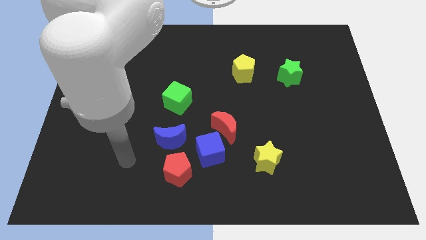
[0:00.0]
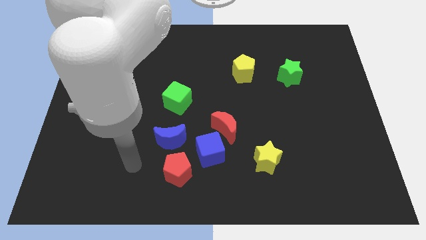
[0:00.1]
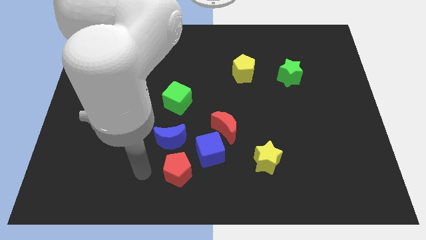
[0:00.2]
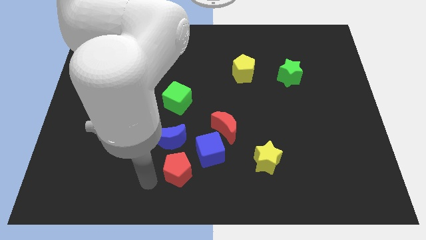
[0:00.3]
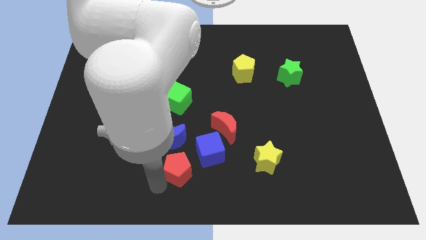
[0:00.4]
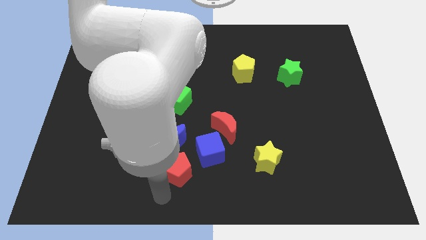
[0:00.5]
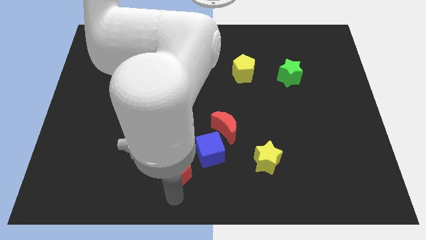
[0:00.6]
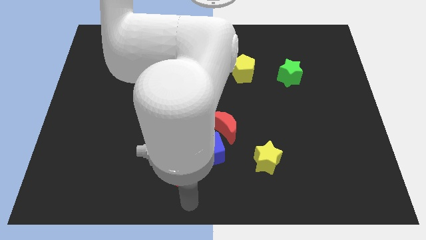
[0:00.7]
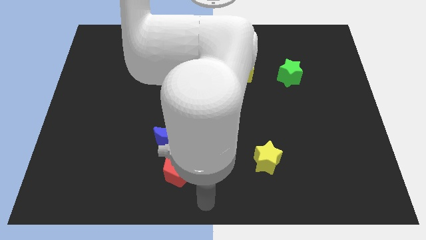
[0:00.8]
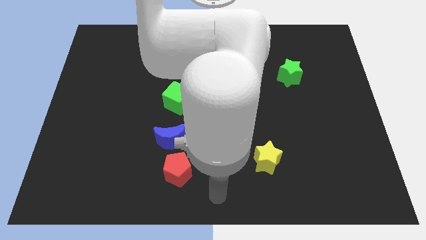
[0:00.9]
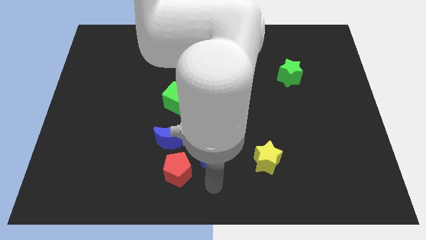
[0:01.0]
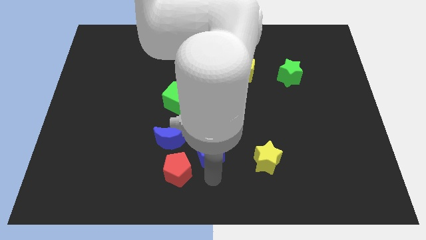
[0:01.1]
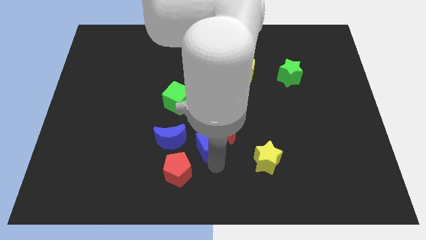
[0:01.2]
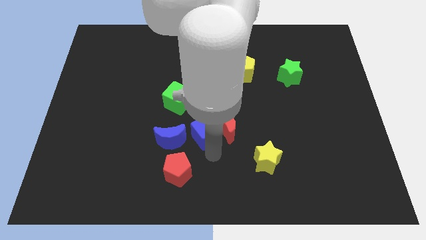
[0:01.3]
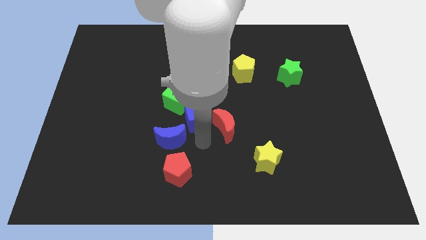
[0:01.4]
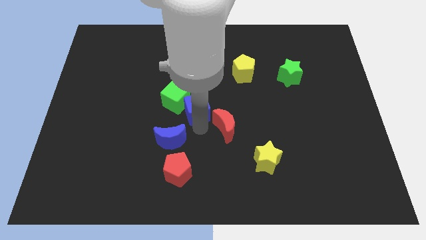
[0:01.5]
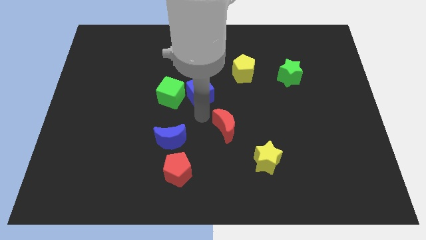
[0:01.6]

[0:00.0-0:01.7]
pull the red moon apart from the blue cube

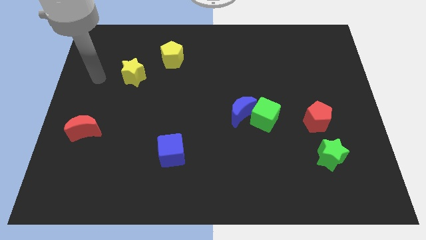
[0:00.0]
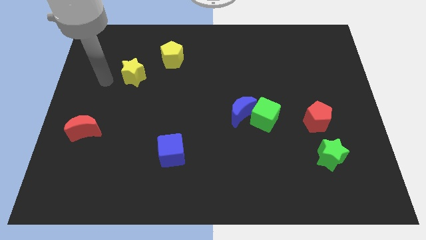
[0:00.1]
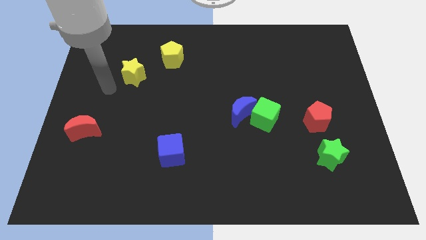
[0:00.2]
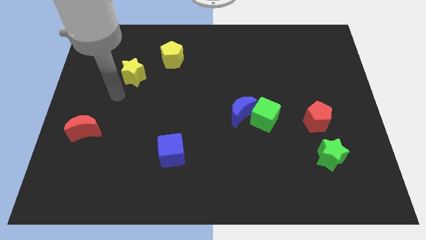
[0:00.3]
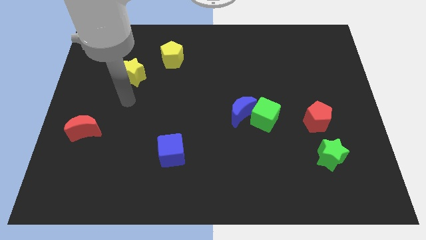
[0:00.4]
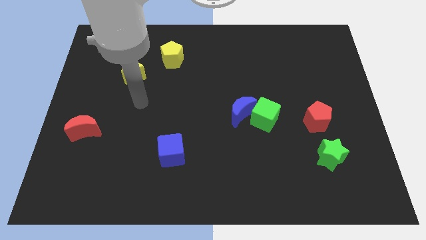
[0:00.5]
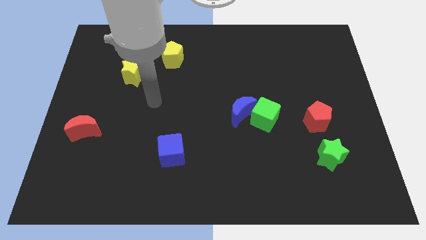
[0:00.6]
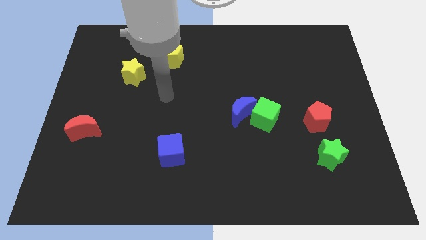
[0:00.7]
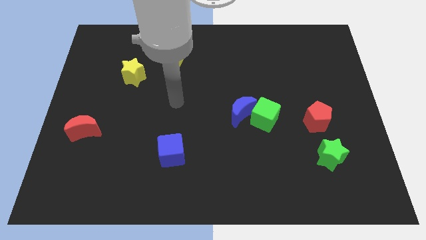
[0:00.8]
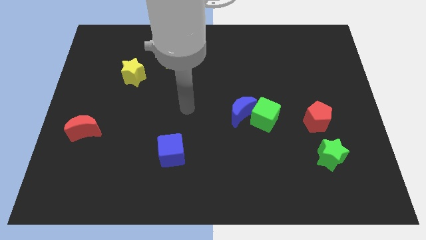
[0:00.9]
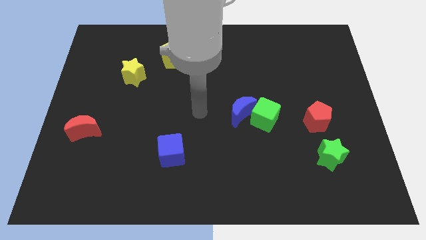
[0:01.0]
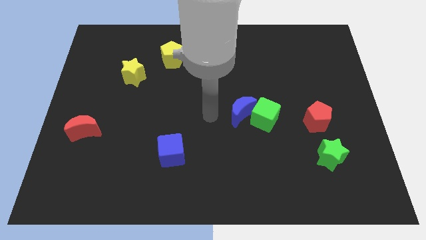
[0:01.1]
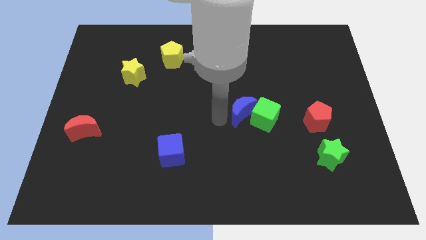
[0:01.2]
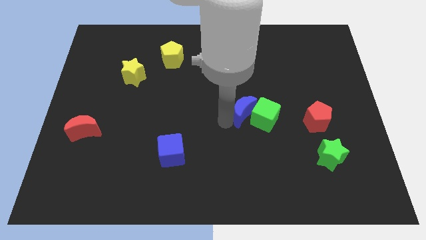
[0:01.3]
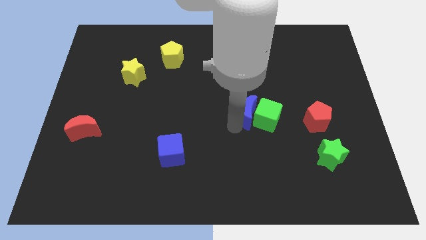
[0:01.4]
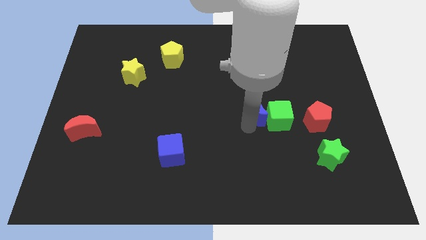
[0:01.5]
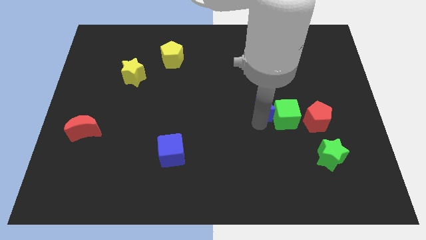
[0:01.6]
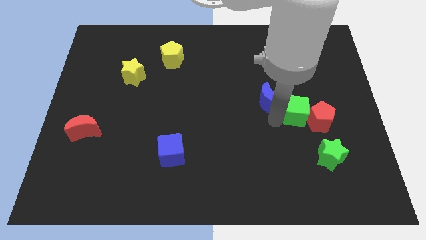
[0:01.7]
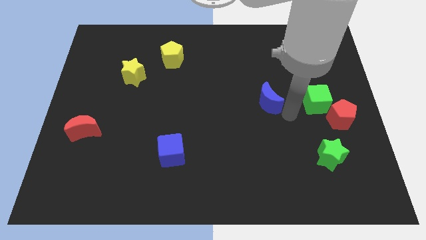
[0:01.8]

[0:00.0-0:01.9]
pull the blue moon apart from the green cube

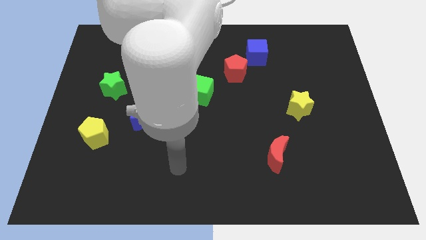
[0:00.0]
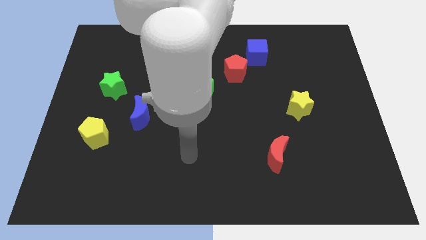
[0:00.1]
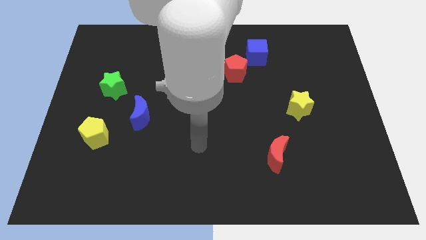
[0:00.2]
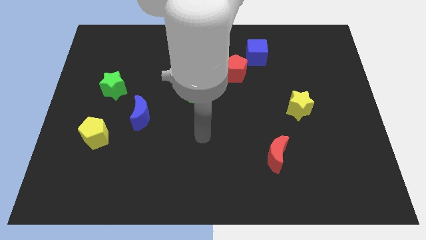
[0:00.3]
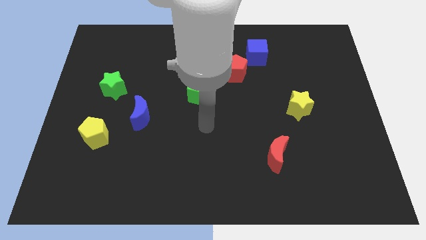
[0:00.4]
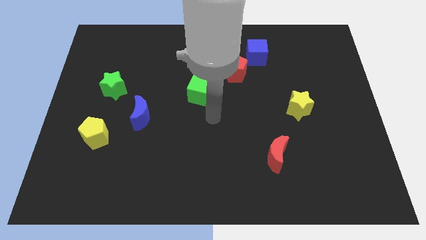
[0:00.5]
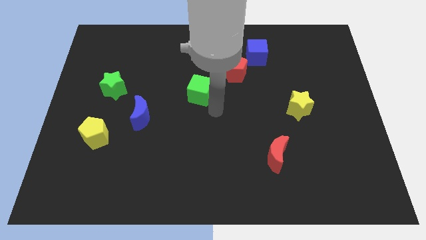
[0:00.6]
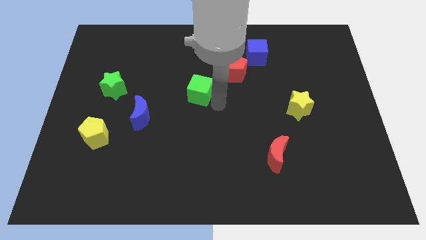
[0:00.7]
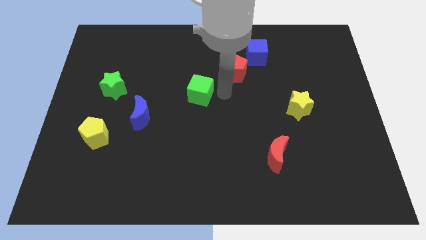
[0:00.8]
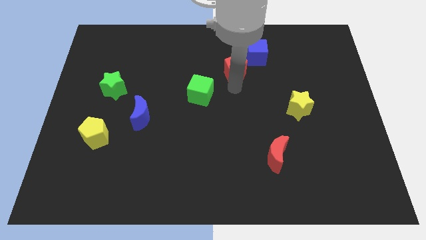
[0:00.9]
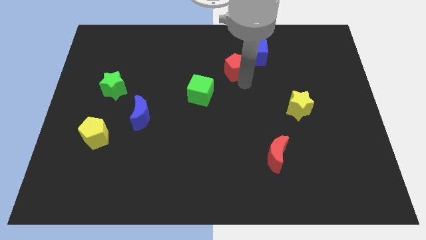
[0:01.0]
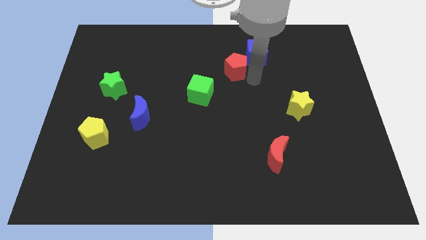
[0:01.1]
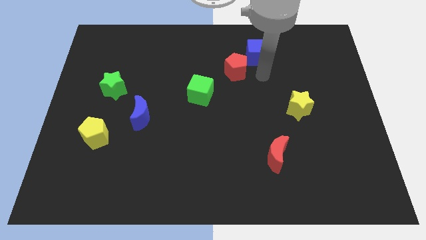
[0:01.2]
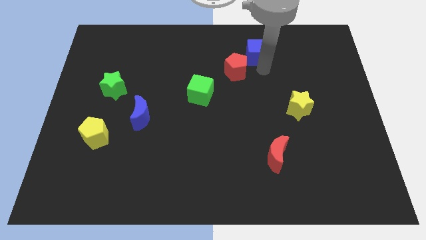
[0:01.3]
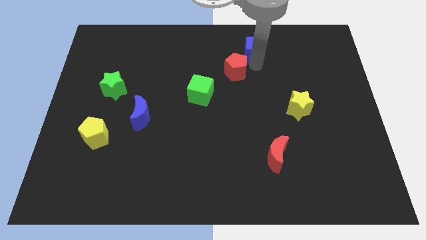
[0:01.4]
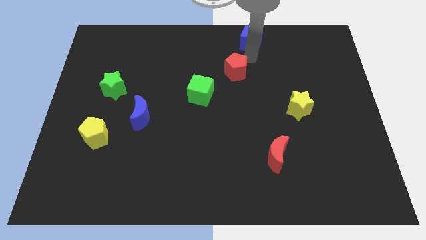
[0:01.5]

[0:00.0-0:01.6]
move the red pentagon away from the blue cube

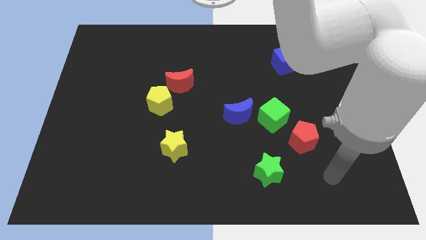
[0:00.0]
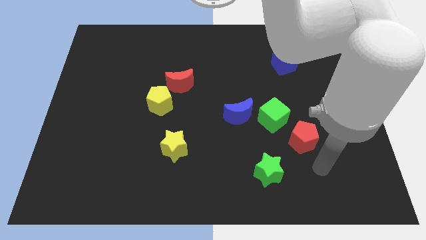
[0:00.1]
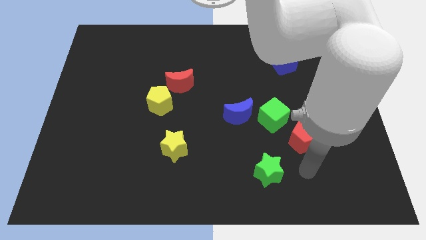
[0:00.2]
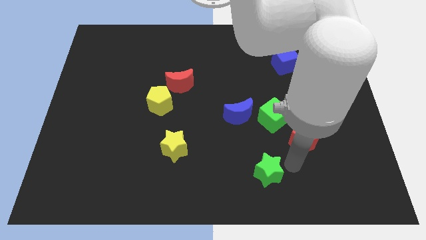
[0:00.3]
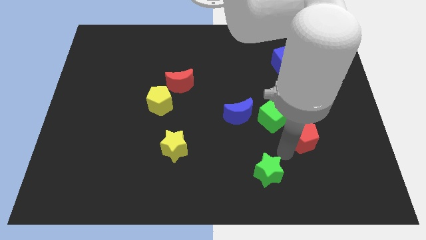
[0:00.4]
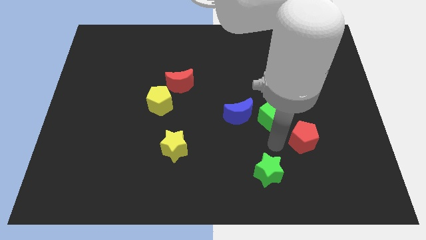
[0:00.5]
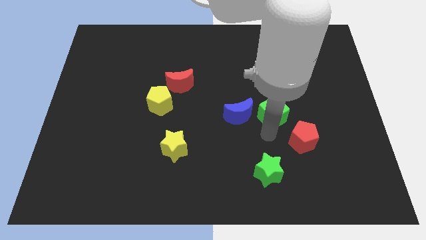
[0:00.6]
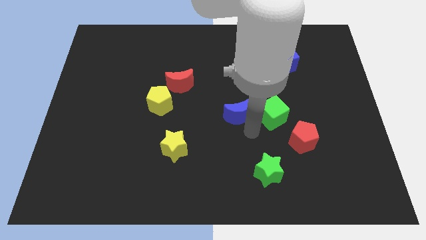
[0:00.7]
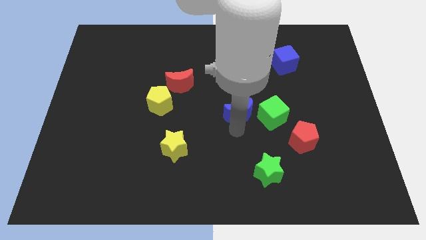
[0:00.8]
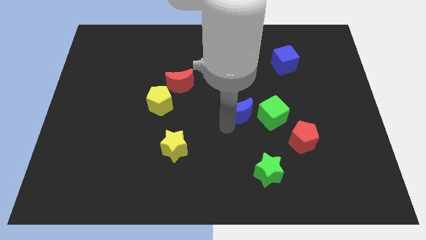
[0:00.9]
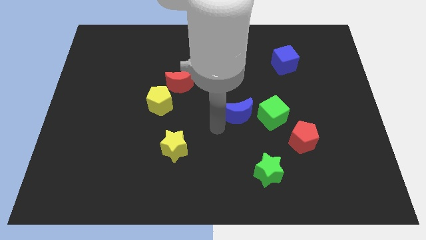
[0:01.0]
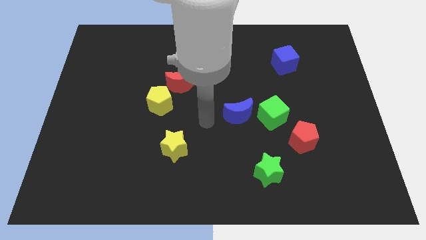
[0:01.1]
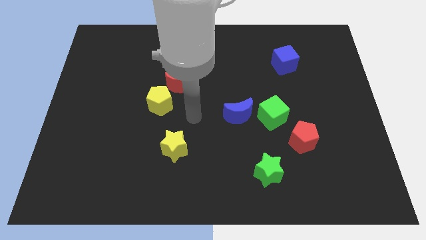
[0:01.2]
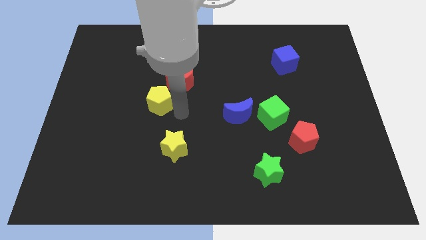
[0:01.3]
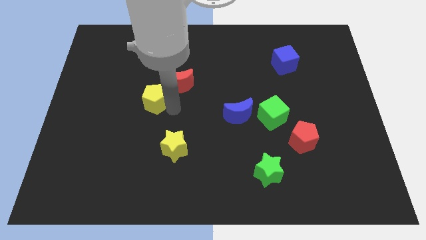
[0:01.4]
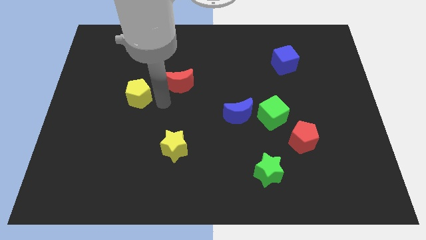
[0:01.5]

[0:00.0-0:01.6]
move the red moon away from the yellow pentagon

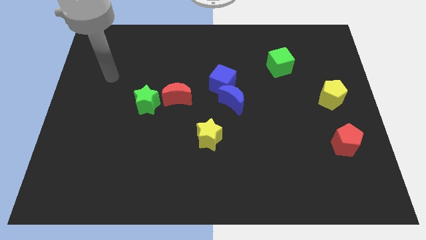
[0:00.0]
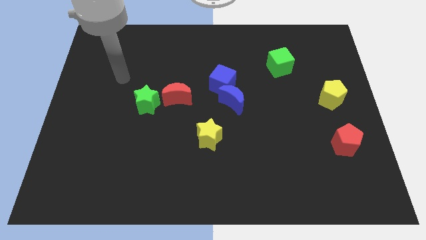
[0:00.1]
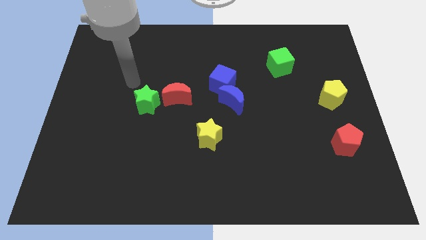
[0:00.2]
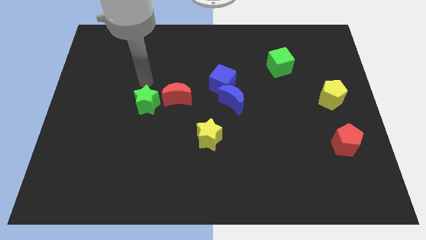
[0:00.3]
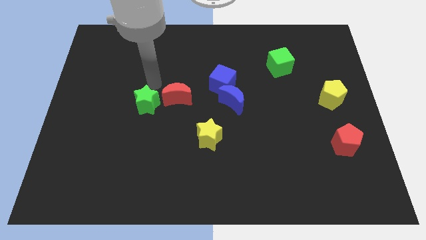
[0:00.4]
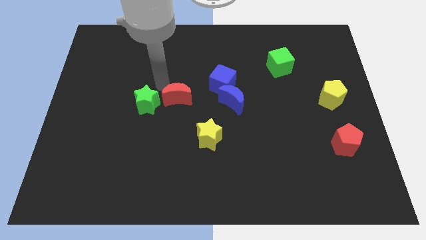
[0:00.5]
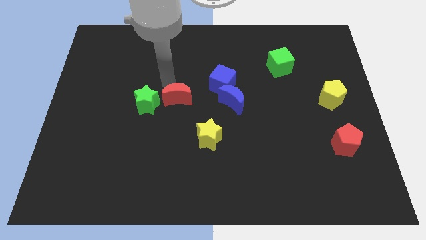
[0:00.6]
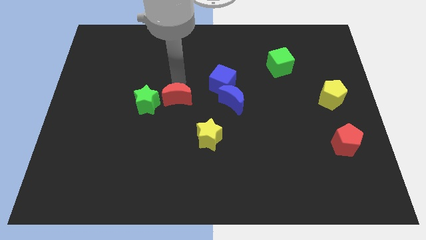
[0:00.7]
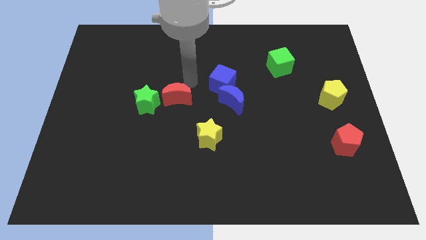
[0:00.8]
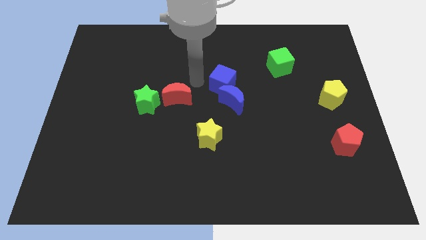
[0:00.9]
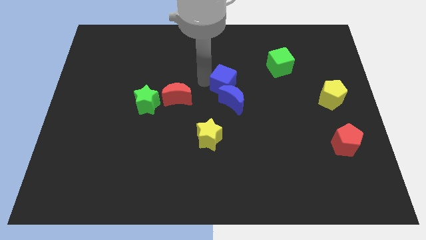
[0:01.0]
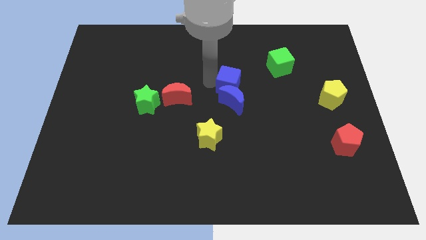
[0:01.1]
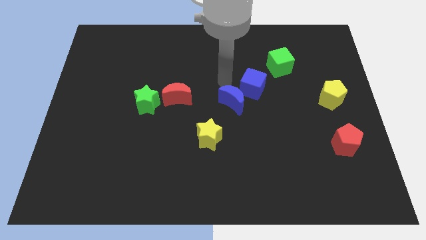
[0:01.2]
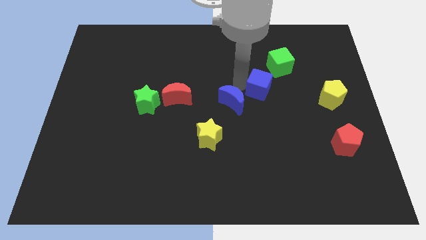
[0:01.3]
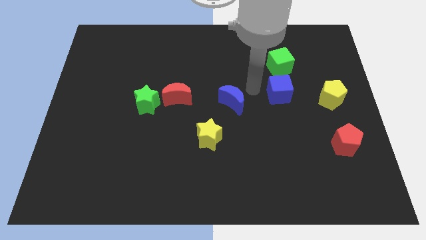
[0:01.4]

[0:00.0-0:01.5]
separate the blue moon from the blue cube

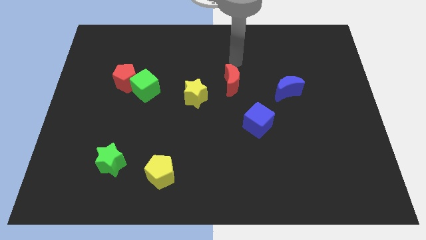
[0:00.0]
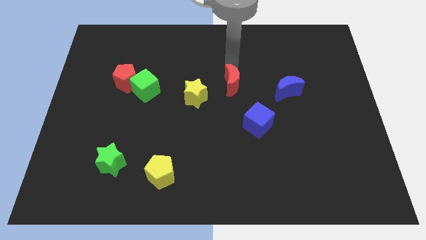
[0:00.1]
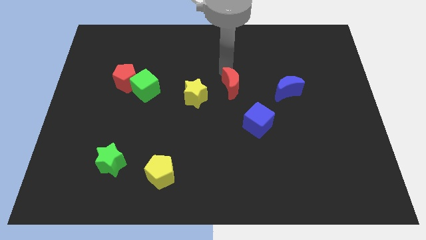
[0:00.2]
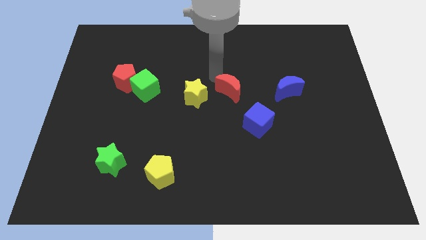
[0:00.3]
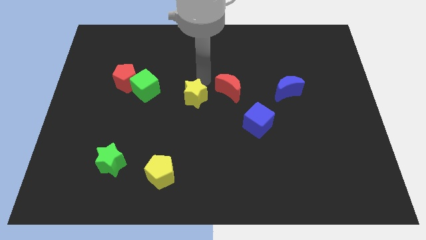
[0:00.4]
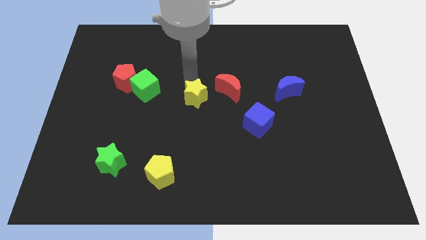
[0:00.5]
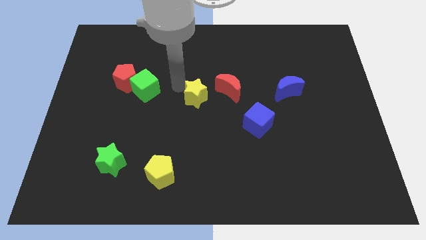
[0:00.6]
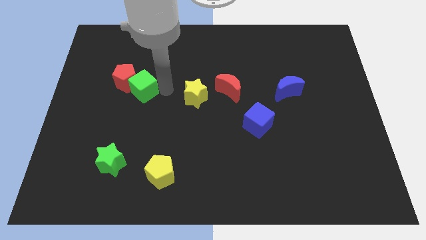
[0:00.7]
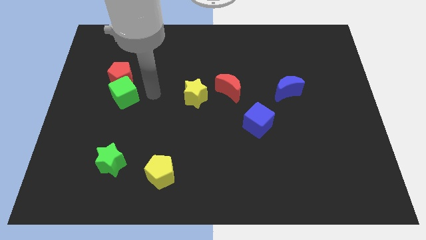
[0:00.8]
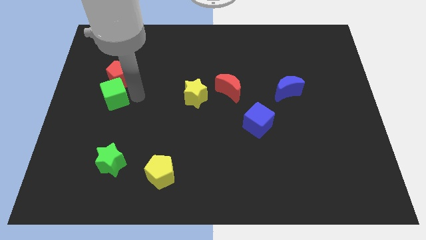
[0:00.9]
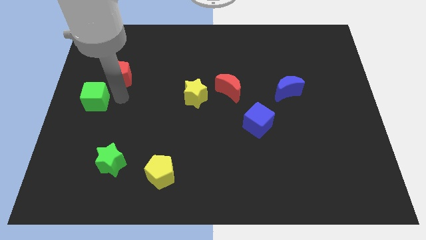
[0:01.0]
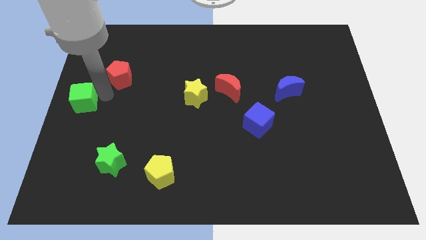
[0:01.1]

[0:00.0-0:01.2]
pull the red pentagon apart from the green cube
